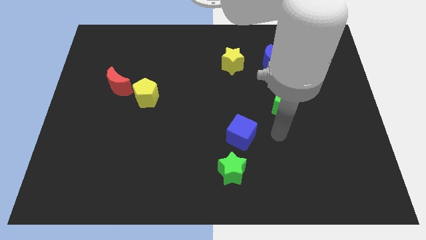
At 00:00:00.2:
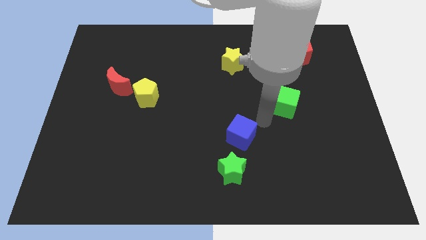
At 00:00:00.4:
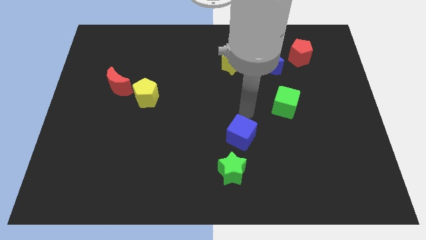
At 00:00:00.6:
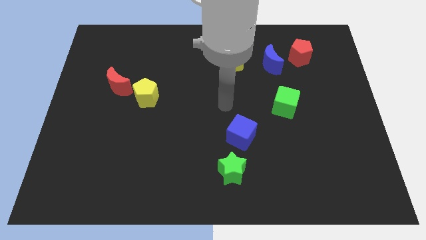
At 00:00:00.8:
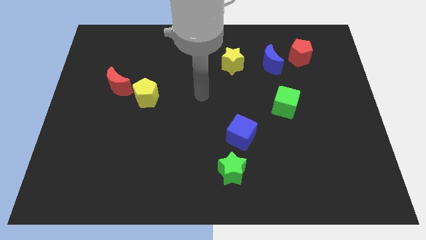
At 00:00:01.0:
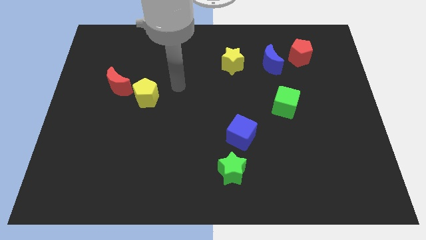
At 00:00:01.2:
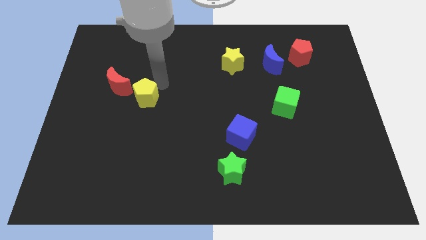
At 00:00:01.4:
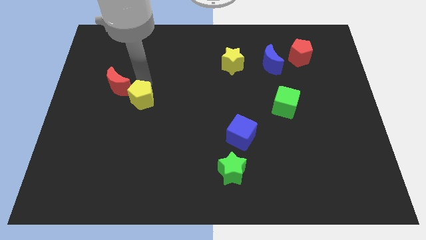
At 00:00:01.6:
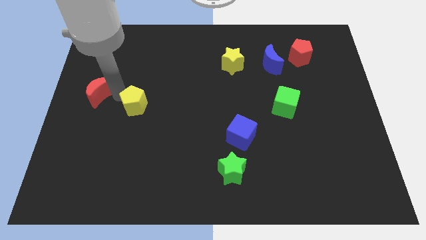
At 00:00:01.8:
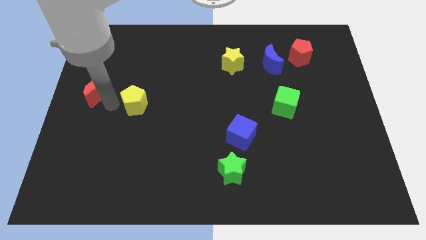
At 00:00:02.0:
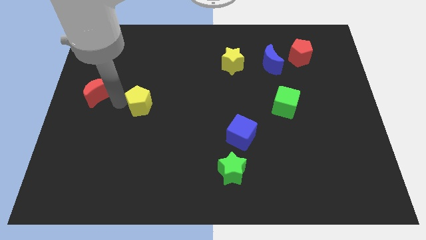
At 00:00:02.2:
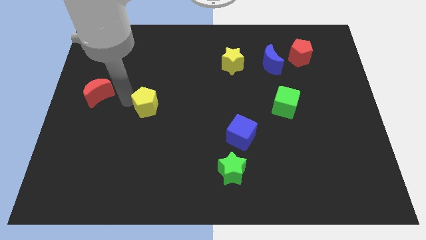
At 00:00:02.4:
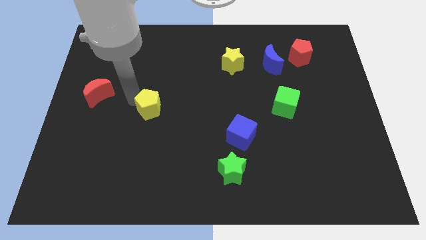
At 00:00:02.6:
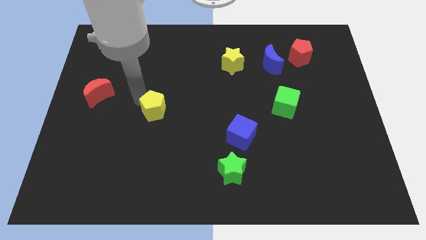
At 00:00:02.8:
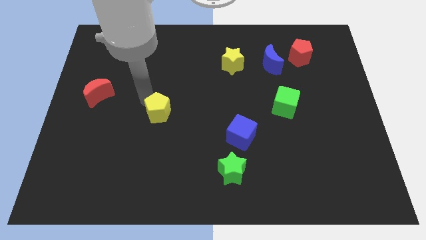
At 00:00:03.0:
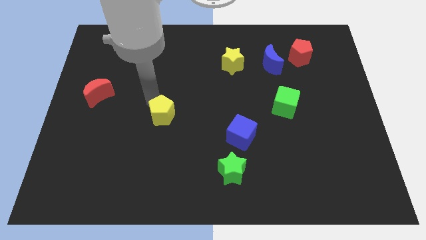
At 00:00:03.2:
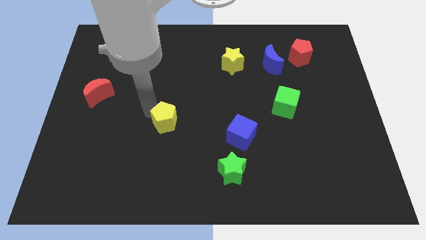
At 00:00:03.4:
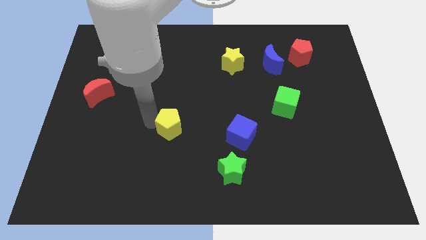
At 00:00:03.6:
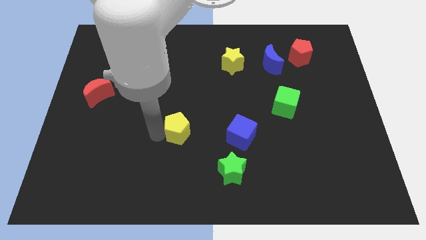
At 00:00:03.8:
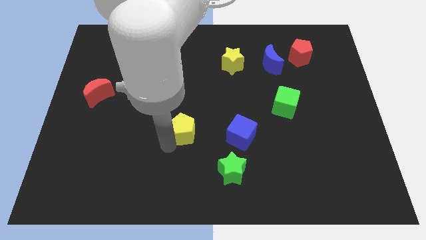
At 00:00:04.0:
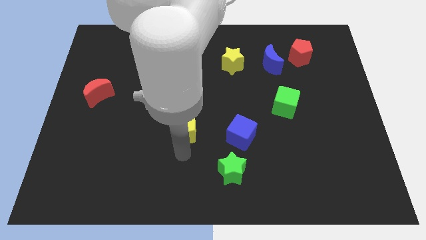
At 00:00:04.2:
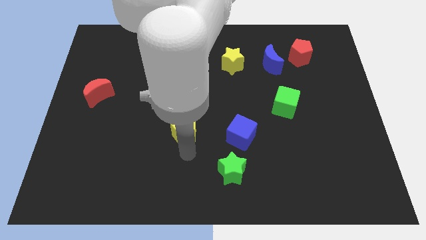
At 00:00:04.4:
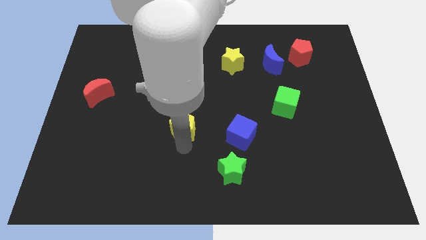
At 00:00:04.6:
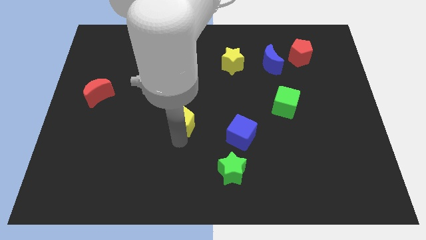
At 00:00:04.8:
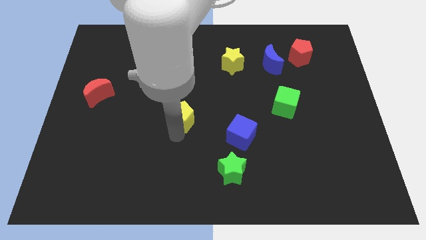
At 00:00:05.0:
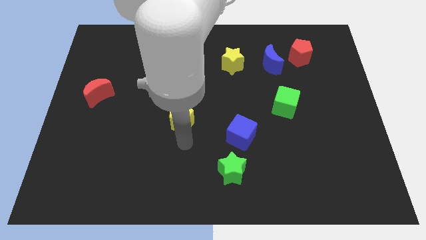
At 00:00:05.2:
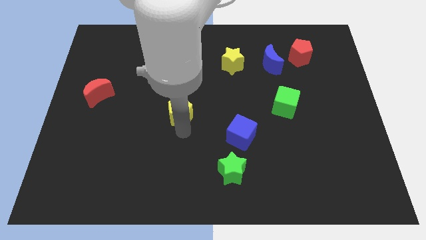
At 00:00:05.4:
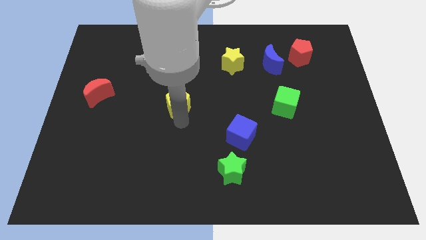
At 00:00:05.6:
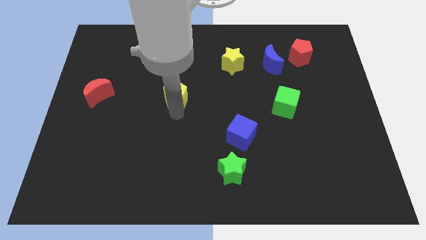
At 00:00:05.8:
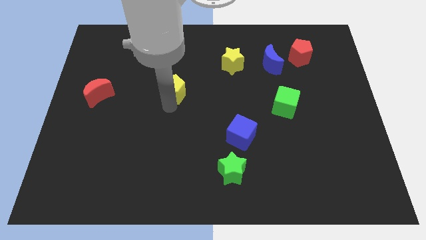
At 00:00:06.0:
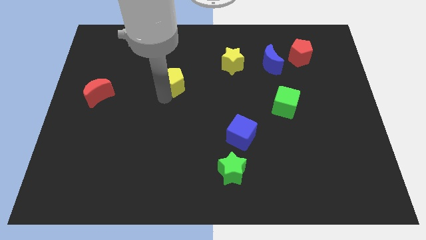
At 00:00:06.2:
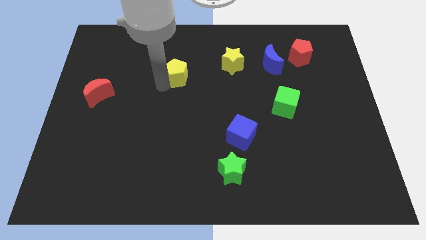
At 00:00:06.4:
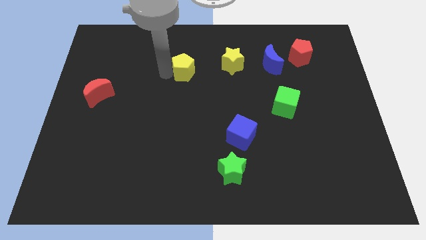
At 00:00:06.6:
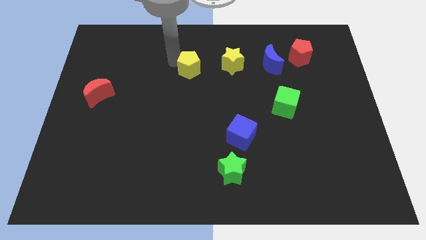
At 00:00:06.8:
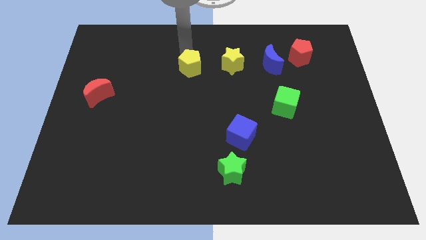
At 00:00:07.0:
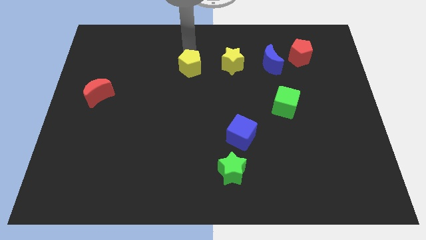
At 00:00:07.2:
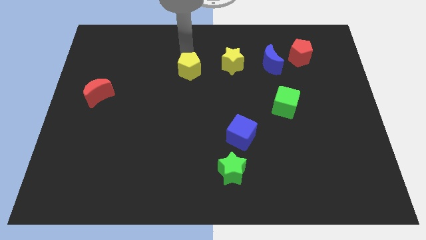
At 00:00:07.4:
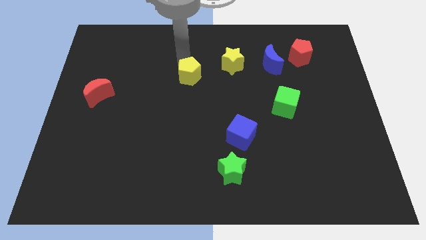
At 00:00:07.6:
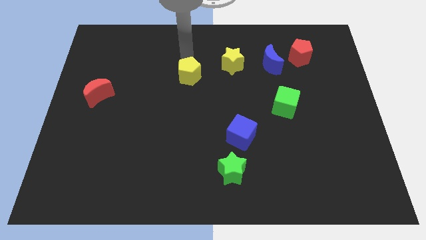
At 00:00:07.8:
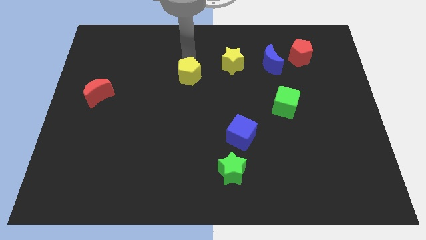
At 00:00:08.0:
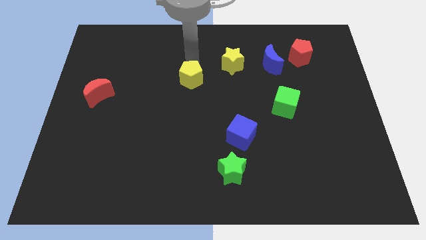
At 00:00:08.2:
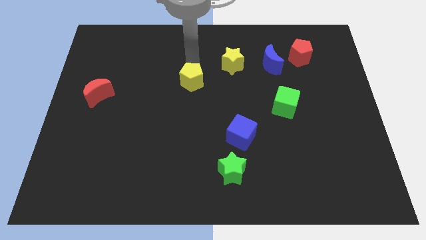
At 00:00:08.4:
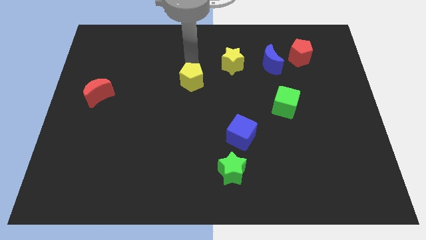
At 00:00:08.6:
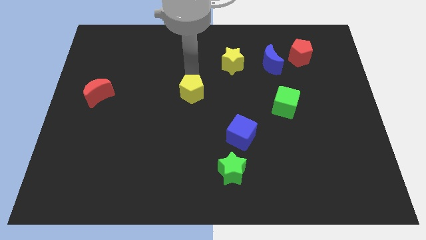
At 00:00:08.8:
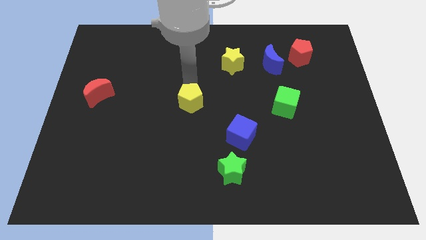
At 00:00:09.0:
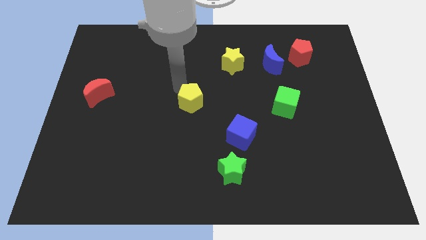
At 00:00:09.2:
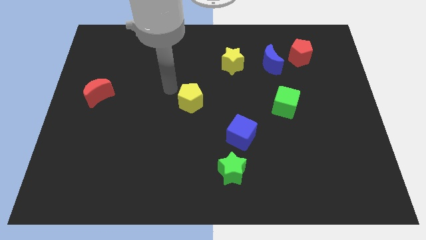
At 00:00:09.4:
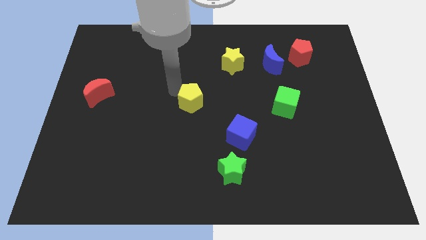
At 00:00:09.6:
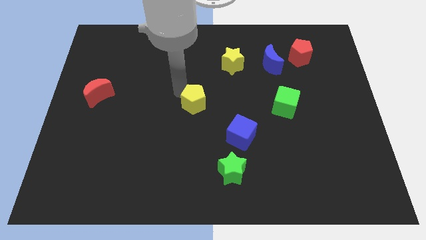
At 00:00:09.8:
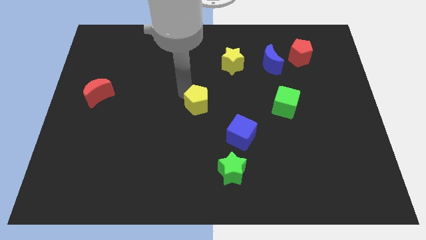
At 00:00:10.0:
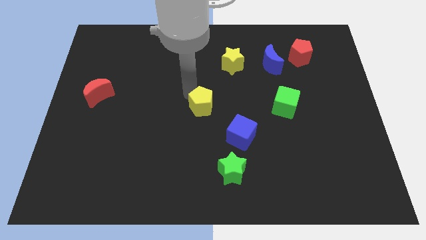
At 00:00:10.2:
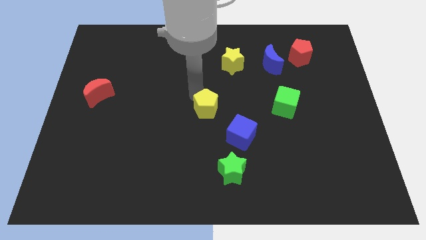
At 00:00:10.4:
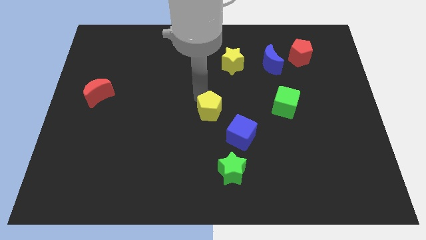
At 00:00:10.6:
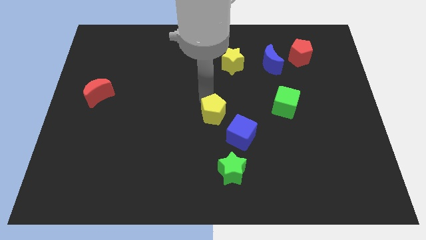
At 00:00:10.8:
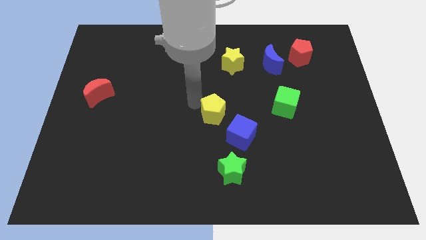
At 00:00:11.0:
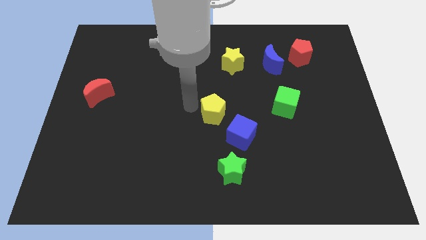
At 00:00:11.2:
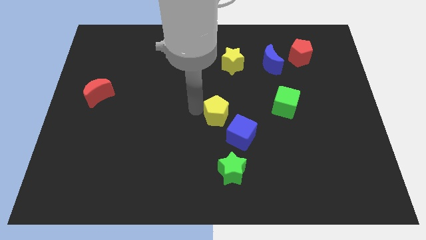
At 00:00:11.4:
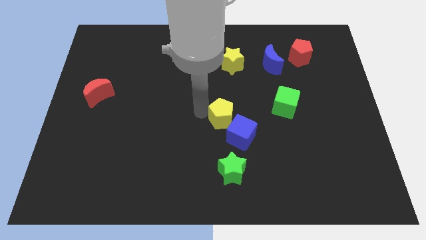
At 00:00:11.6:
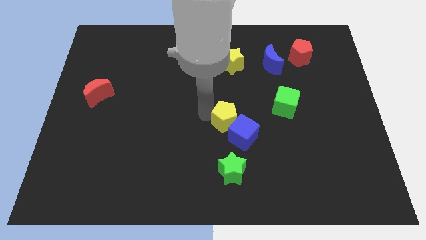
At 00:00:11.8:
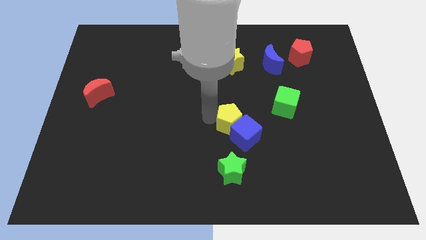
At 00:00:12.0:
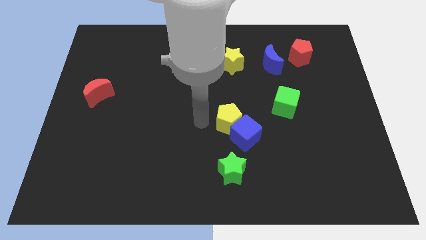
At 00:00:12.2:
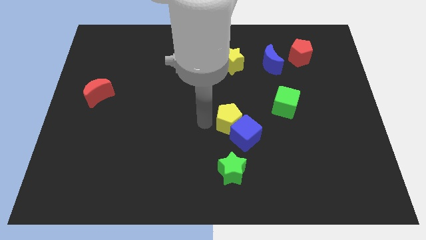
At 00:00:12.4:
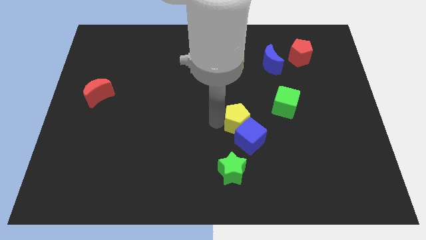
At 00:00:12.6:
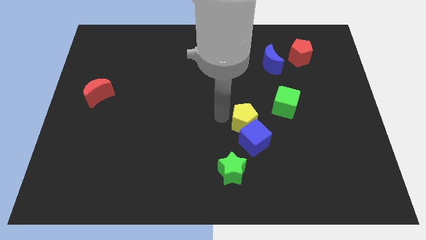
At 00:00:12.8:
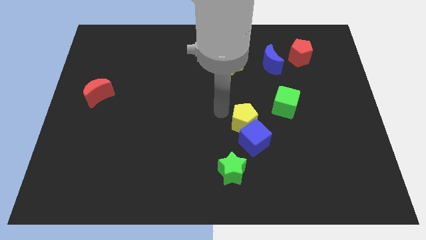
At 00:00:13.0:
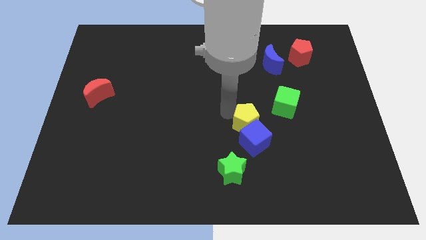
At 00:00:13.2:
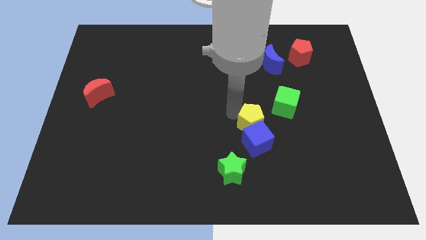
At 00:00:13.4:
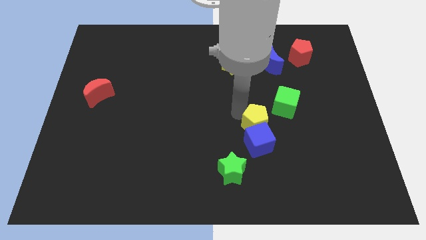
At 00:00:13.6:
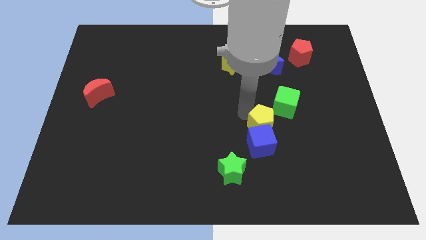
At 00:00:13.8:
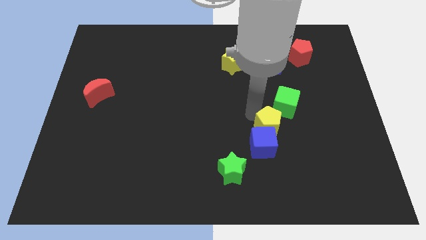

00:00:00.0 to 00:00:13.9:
put the yellow pentagon to the bottom of the green cube

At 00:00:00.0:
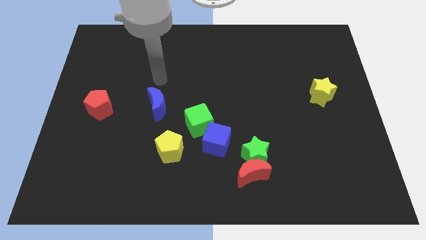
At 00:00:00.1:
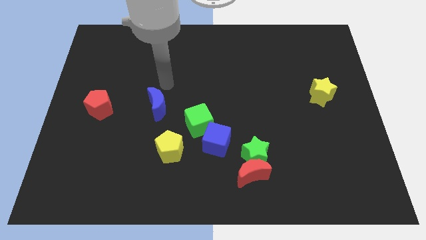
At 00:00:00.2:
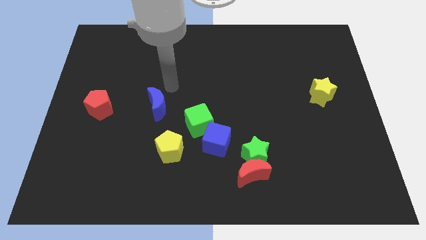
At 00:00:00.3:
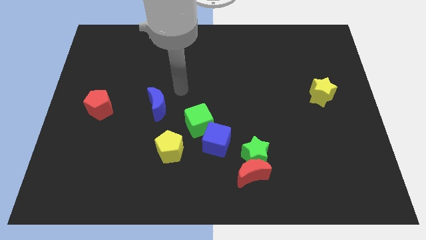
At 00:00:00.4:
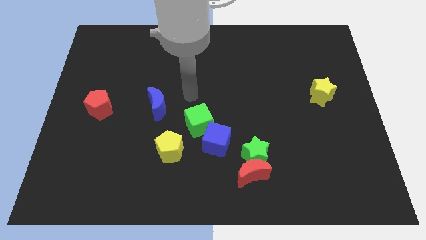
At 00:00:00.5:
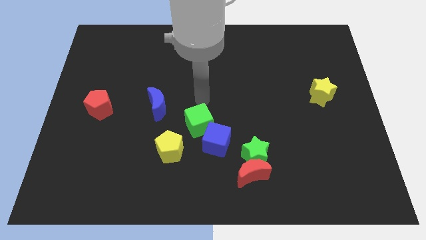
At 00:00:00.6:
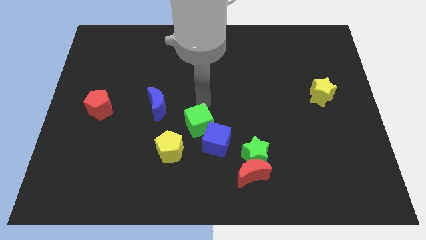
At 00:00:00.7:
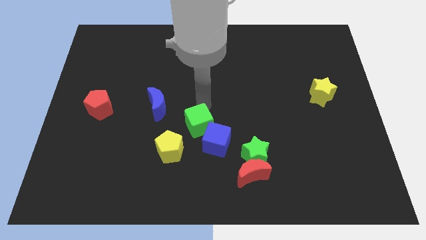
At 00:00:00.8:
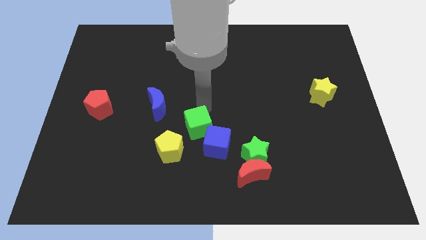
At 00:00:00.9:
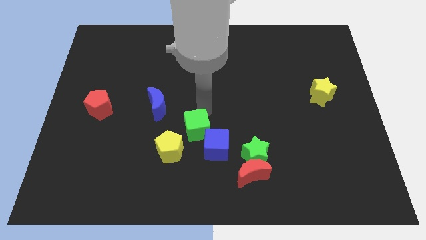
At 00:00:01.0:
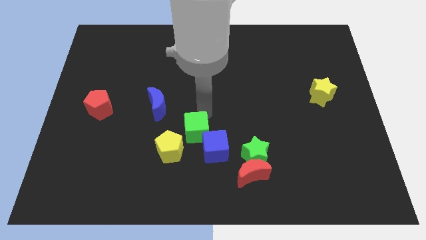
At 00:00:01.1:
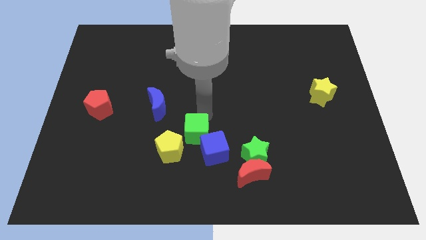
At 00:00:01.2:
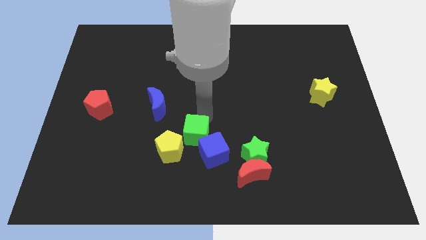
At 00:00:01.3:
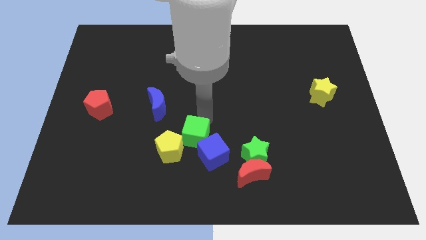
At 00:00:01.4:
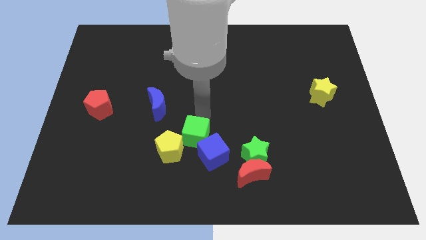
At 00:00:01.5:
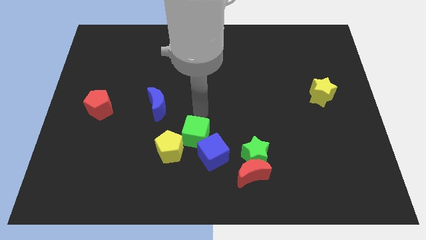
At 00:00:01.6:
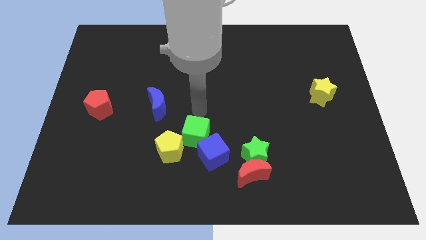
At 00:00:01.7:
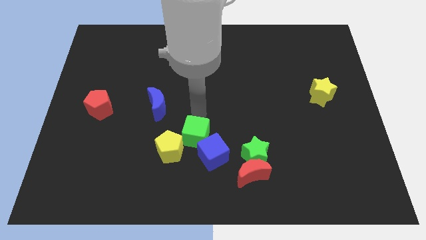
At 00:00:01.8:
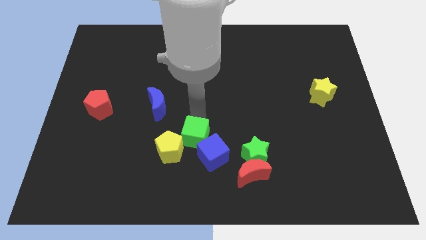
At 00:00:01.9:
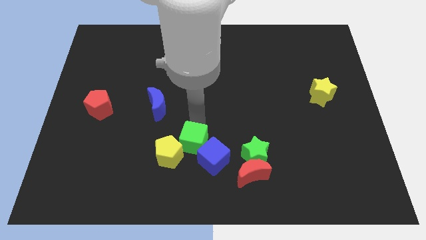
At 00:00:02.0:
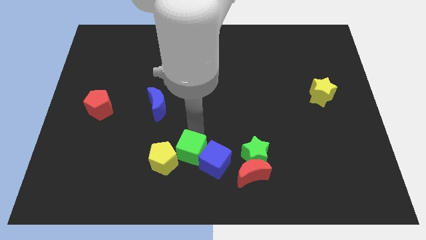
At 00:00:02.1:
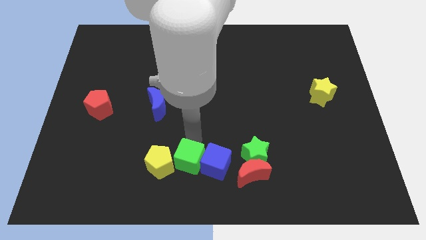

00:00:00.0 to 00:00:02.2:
put the green cube diagonally down and to the left of the blue cube
